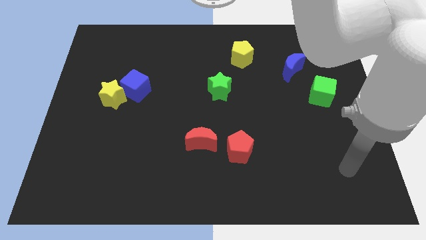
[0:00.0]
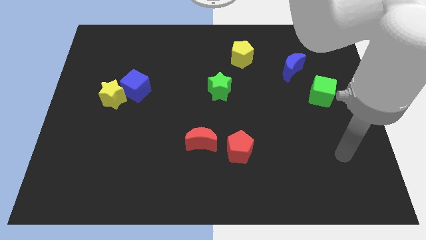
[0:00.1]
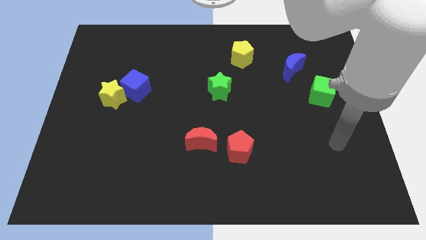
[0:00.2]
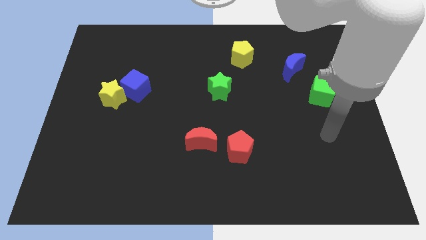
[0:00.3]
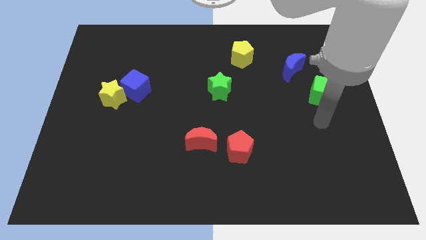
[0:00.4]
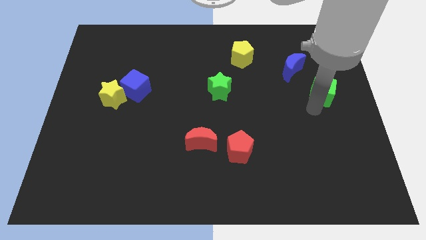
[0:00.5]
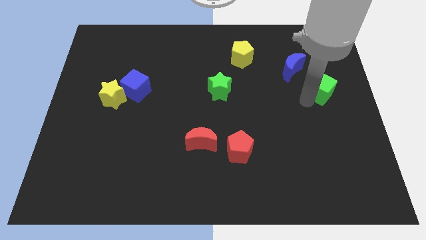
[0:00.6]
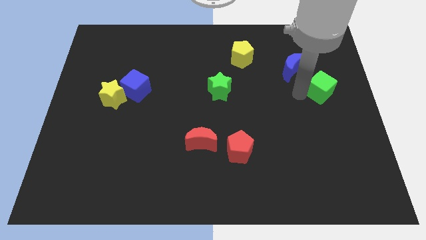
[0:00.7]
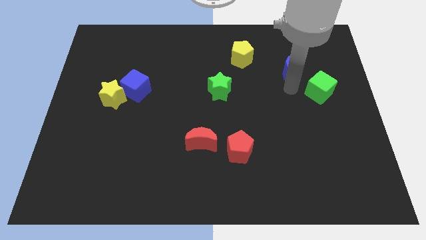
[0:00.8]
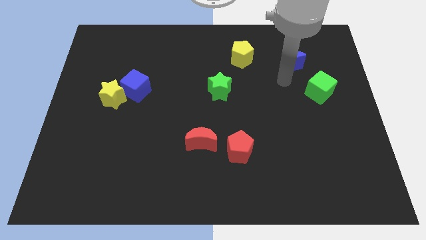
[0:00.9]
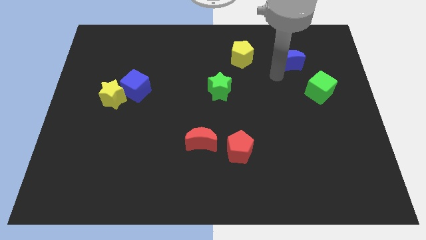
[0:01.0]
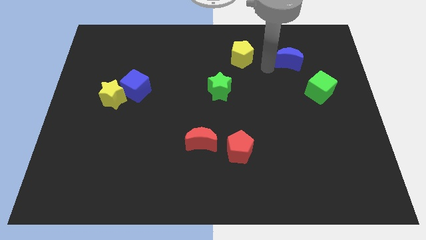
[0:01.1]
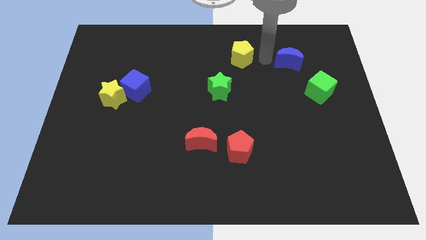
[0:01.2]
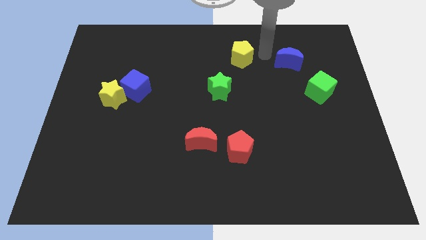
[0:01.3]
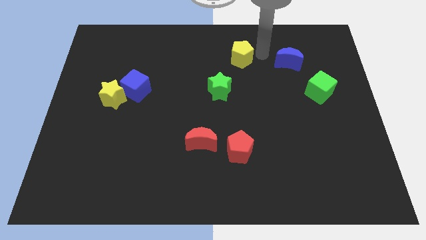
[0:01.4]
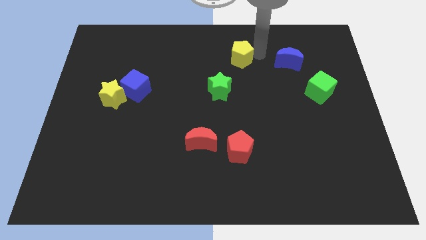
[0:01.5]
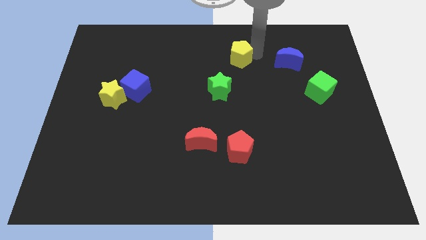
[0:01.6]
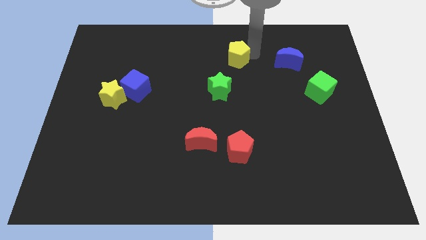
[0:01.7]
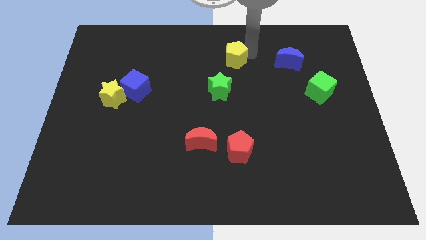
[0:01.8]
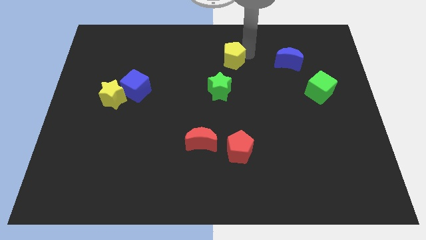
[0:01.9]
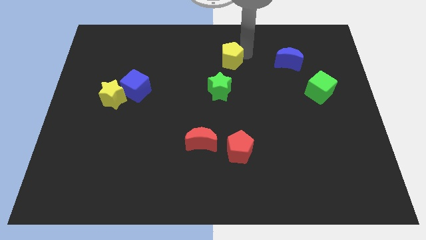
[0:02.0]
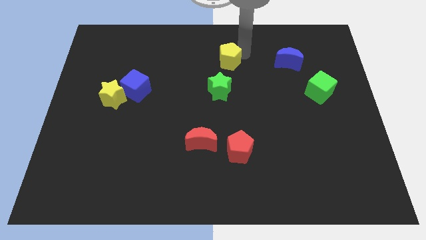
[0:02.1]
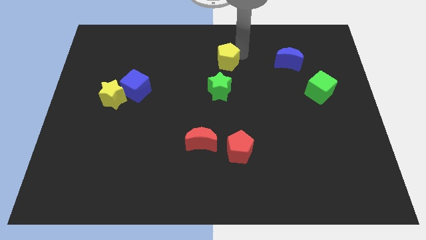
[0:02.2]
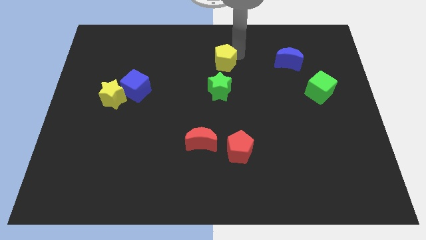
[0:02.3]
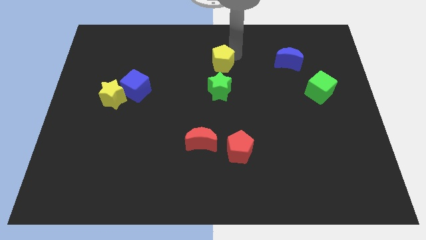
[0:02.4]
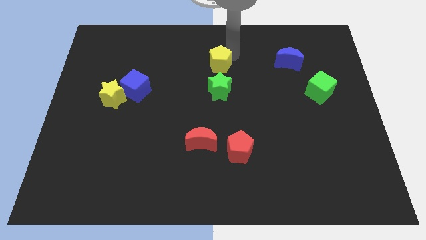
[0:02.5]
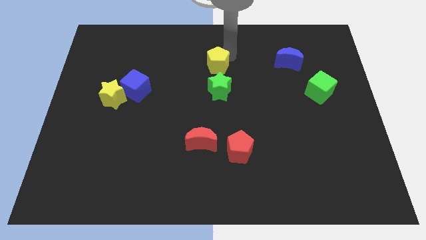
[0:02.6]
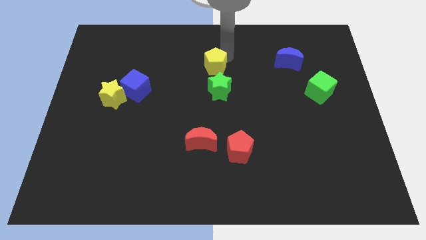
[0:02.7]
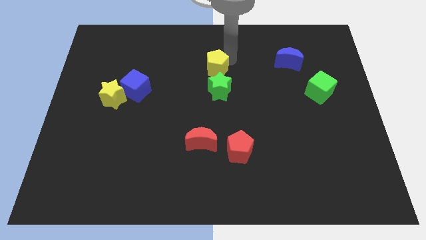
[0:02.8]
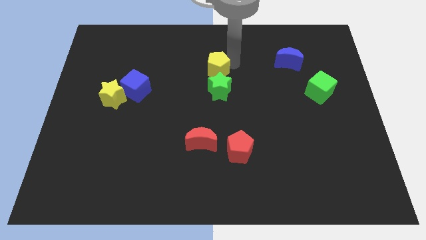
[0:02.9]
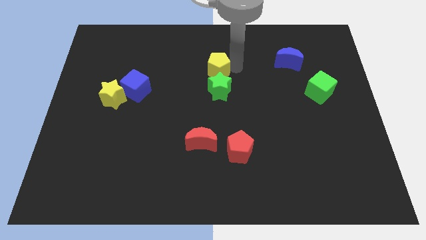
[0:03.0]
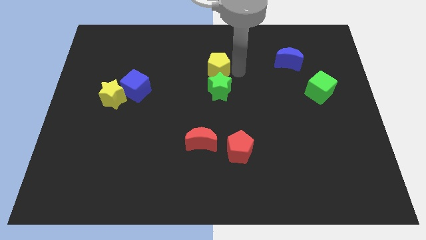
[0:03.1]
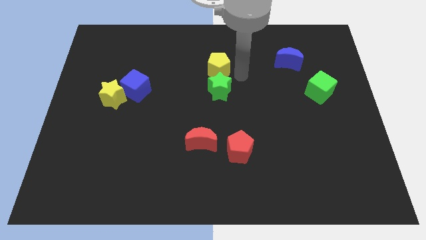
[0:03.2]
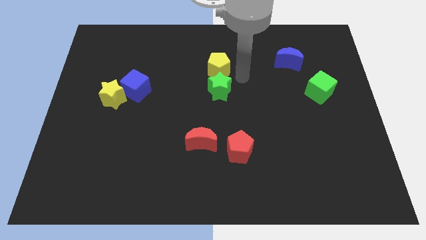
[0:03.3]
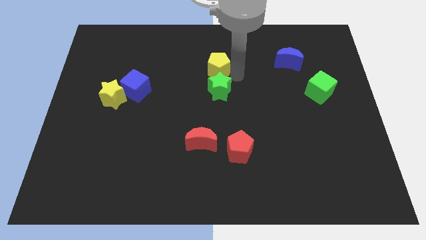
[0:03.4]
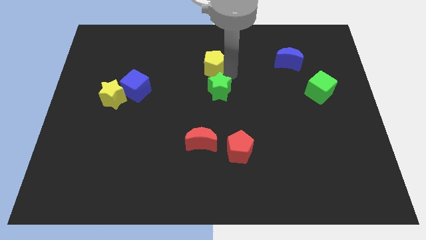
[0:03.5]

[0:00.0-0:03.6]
slightly move the yellow pentagon left

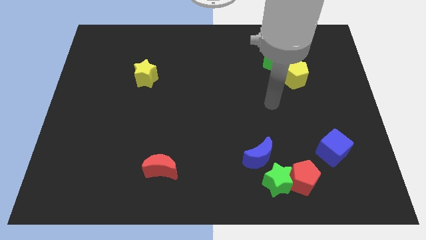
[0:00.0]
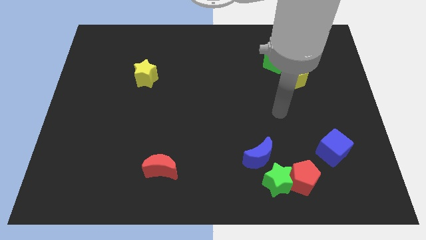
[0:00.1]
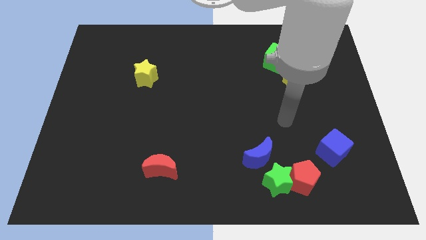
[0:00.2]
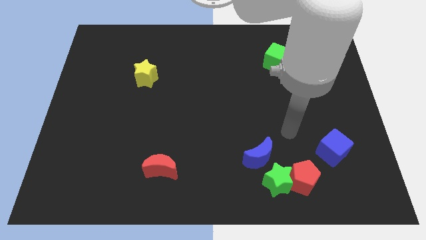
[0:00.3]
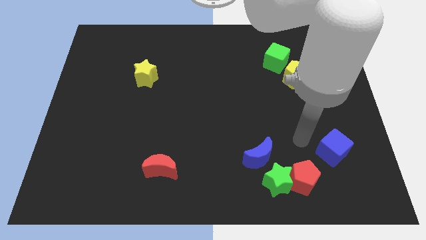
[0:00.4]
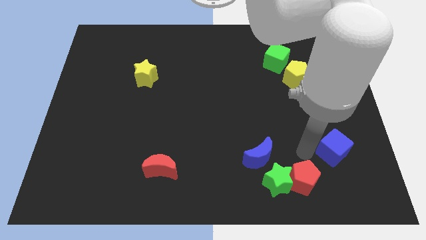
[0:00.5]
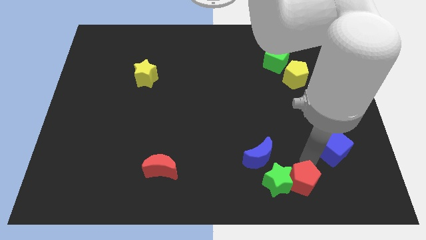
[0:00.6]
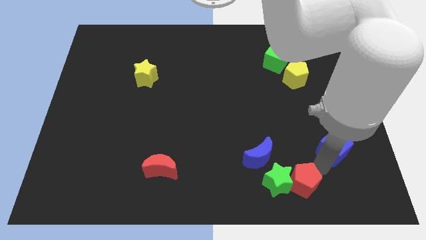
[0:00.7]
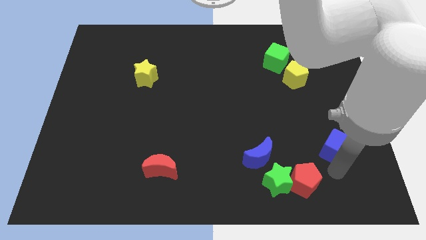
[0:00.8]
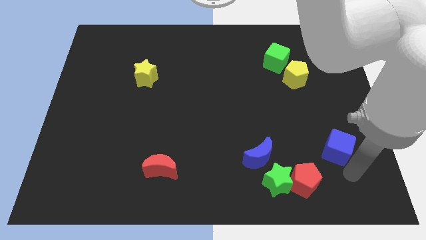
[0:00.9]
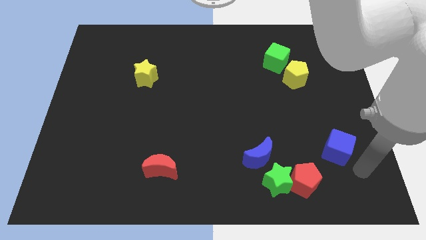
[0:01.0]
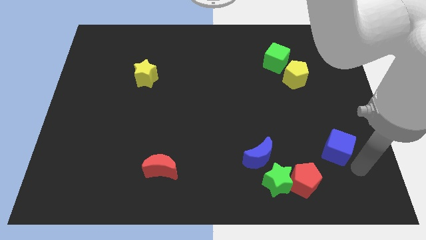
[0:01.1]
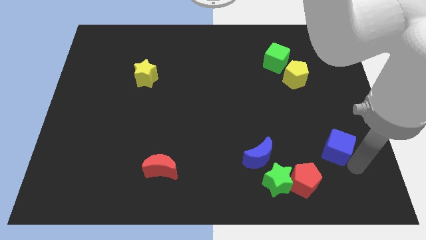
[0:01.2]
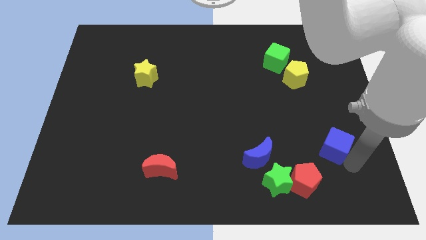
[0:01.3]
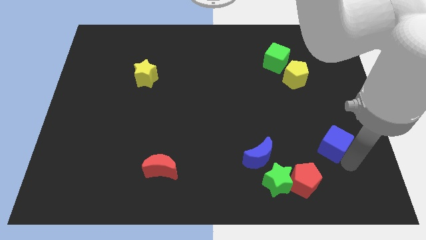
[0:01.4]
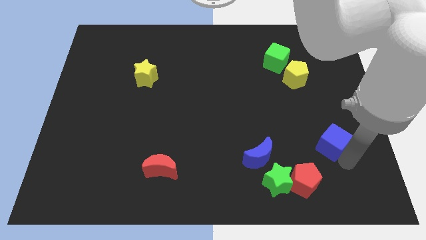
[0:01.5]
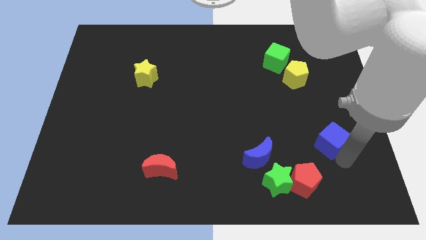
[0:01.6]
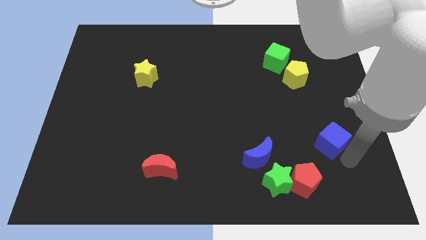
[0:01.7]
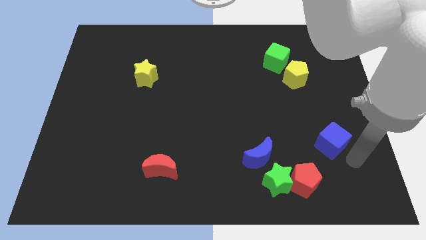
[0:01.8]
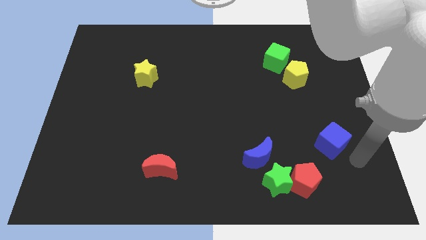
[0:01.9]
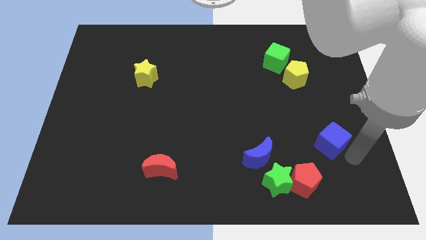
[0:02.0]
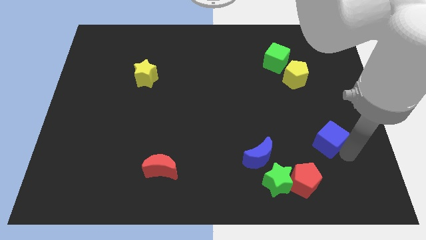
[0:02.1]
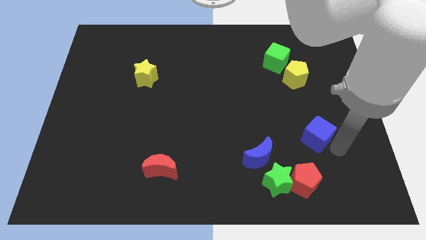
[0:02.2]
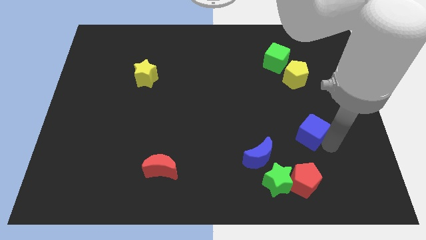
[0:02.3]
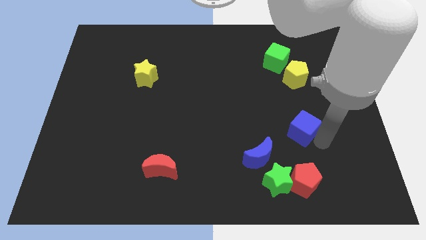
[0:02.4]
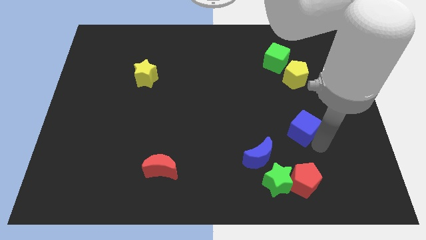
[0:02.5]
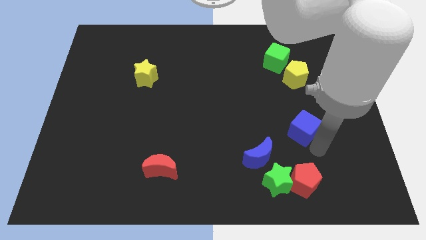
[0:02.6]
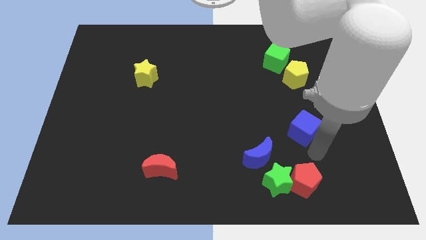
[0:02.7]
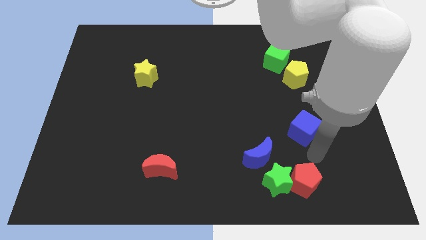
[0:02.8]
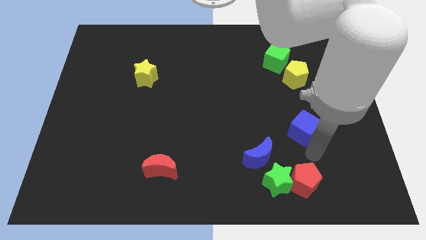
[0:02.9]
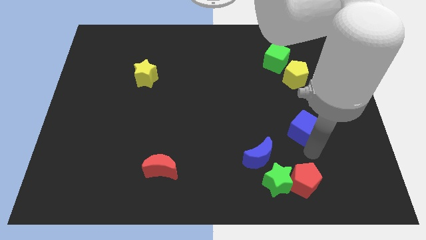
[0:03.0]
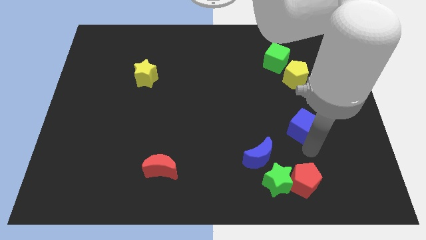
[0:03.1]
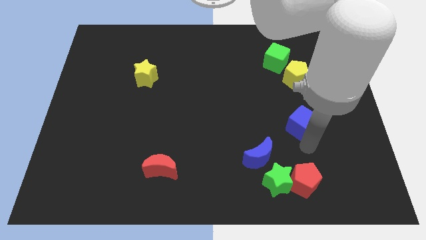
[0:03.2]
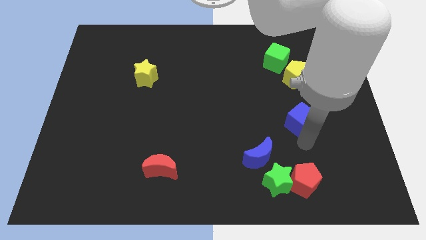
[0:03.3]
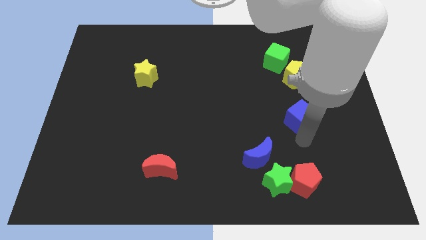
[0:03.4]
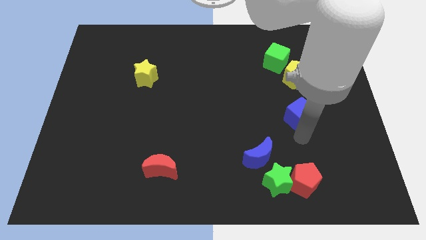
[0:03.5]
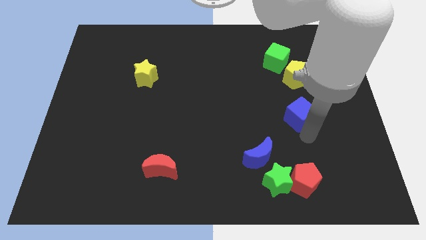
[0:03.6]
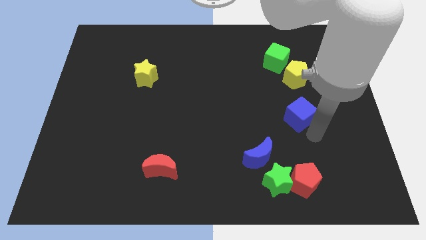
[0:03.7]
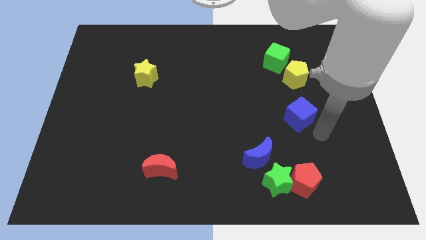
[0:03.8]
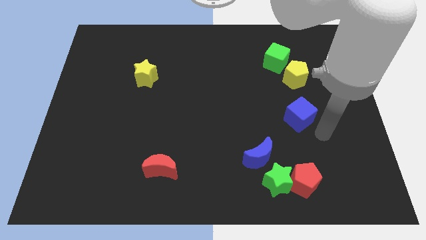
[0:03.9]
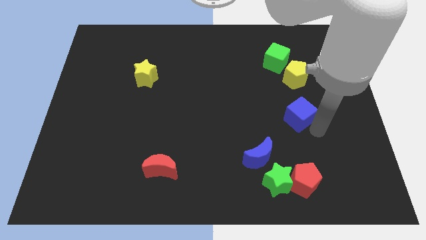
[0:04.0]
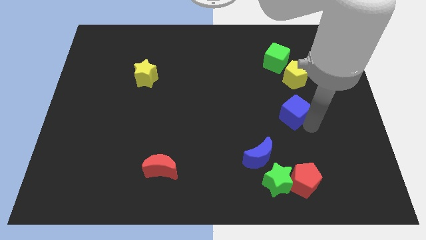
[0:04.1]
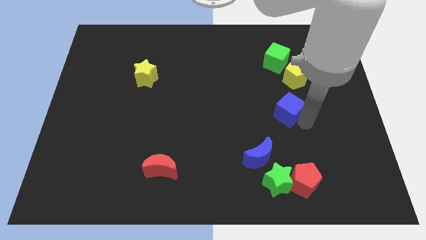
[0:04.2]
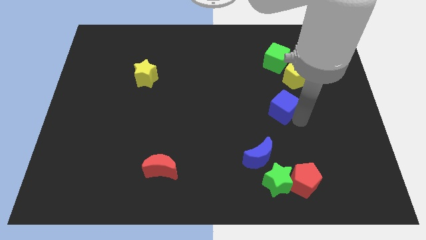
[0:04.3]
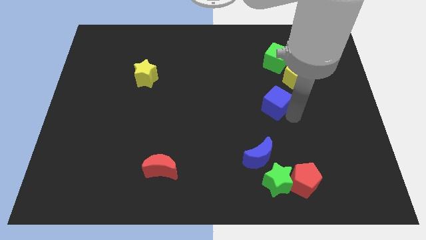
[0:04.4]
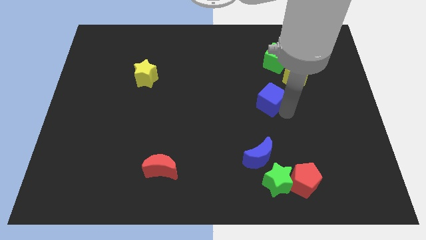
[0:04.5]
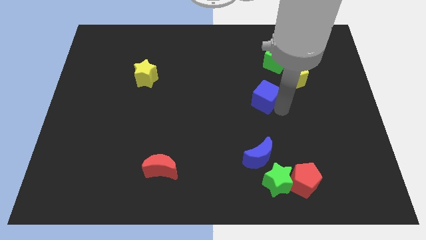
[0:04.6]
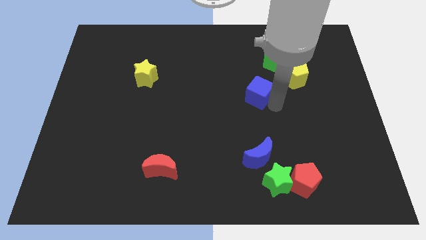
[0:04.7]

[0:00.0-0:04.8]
push the blue cube up and to the left diagonally
